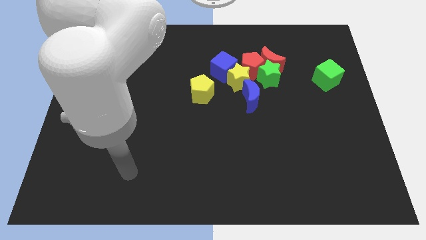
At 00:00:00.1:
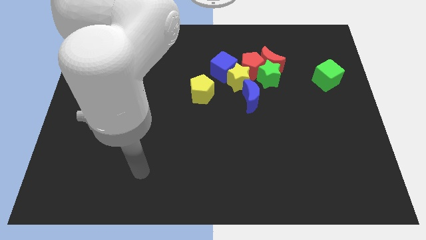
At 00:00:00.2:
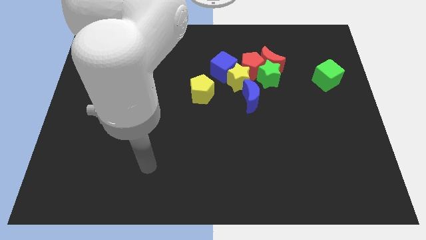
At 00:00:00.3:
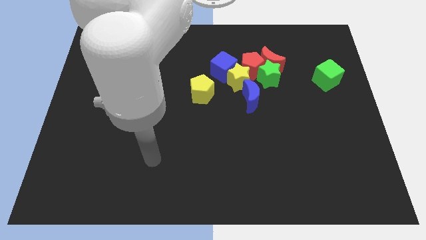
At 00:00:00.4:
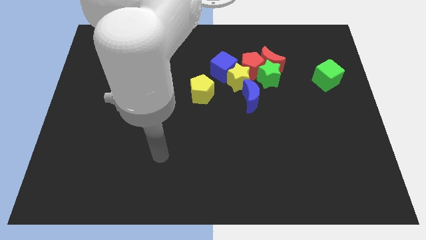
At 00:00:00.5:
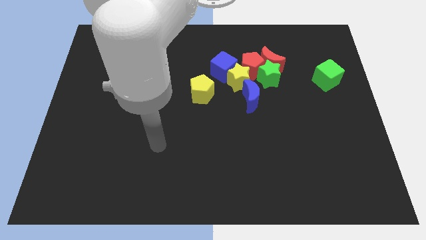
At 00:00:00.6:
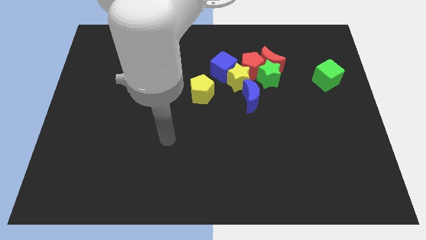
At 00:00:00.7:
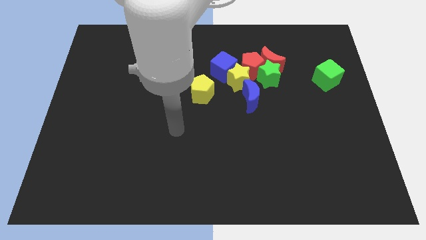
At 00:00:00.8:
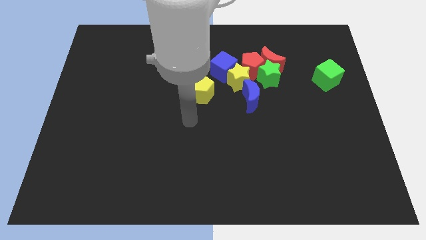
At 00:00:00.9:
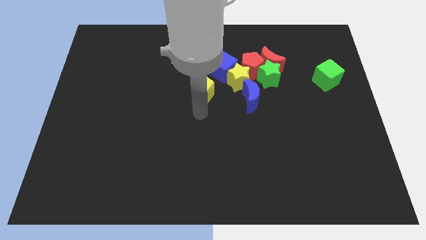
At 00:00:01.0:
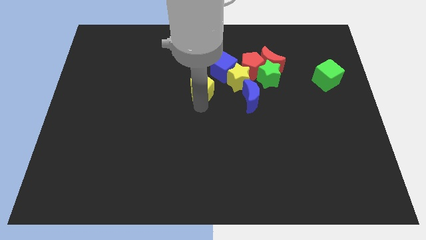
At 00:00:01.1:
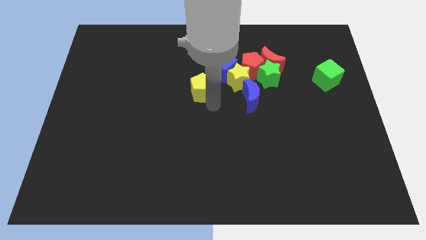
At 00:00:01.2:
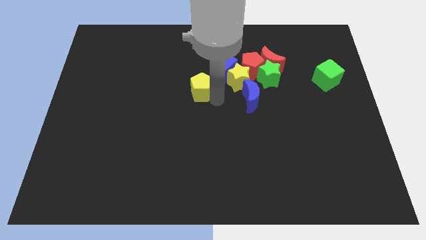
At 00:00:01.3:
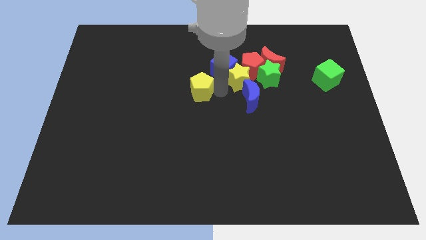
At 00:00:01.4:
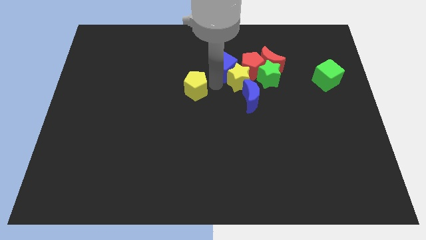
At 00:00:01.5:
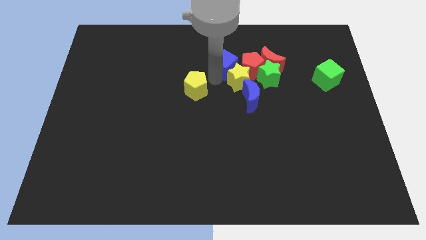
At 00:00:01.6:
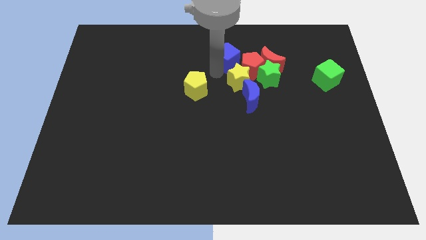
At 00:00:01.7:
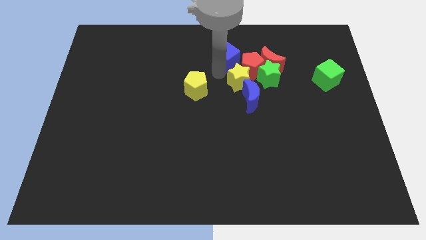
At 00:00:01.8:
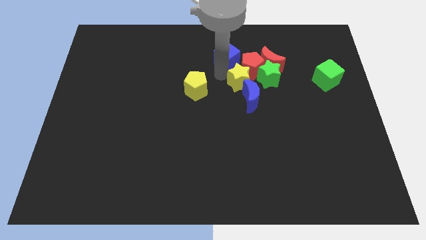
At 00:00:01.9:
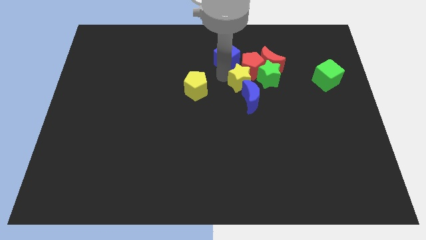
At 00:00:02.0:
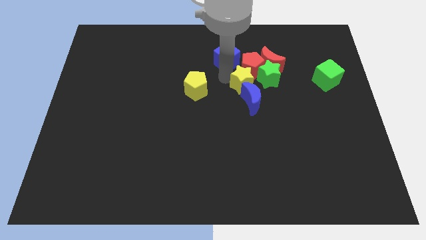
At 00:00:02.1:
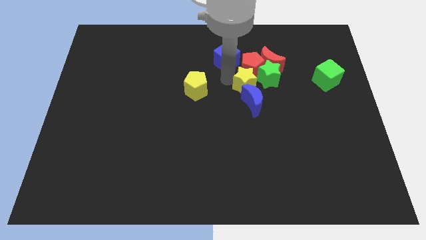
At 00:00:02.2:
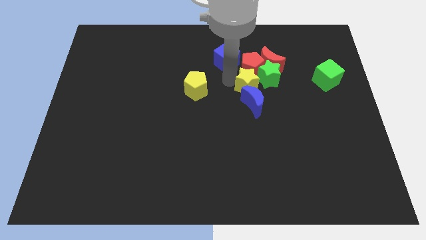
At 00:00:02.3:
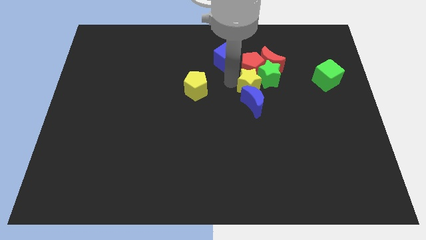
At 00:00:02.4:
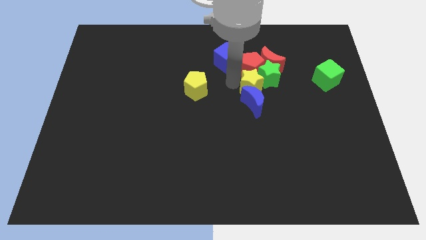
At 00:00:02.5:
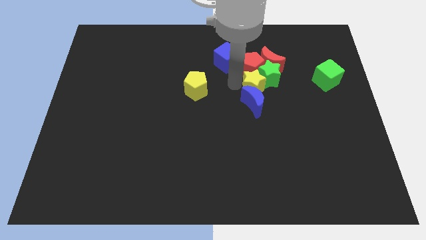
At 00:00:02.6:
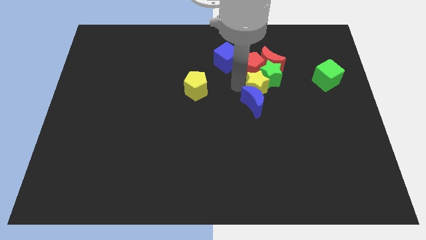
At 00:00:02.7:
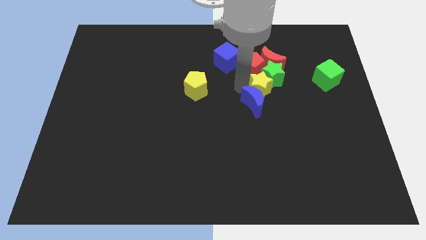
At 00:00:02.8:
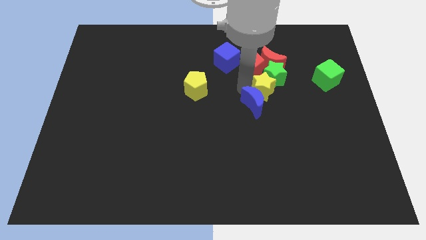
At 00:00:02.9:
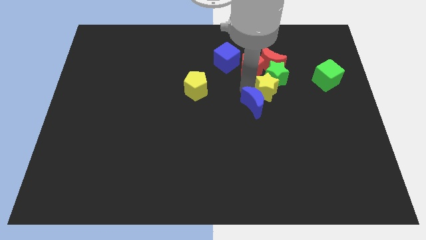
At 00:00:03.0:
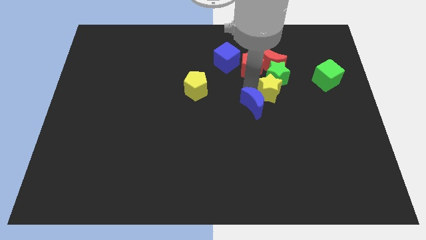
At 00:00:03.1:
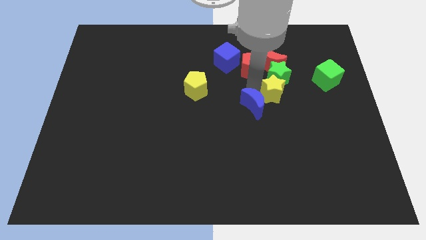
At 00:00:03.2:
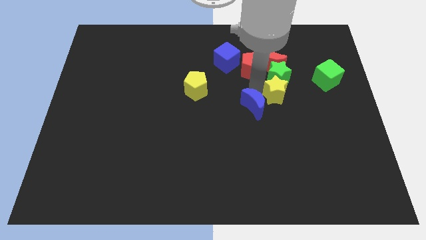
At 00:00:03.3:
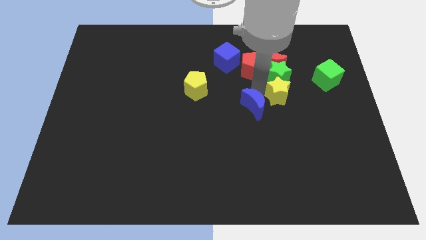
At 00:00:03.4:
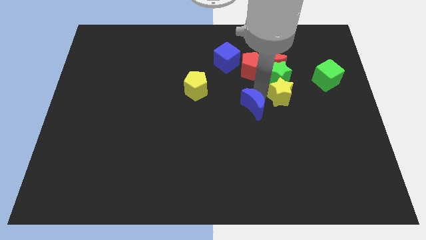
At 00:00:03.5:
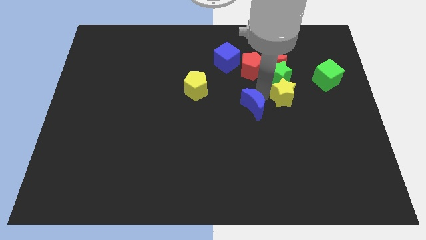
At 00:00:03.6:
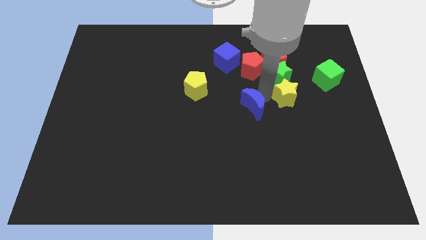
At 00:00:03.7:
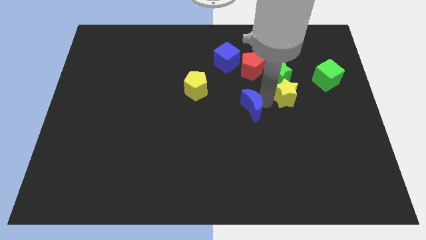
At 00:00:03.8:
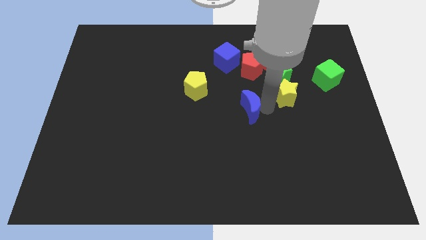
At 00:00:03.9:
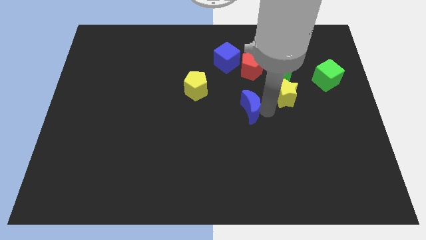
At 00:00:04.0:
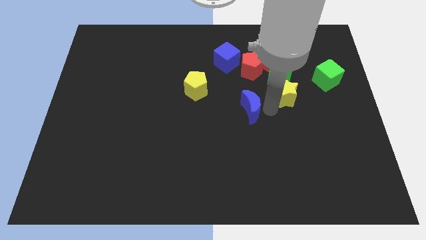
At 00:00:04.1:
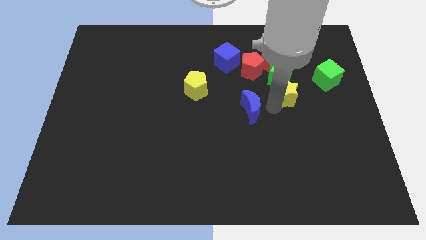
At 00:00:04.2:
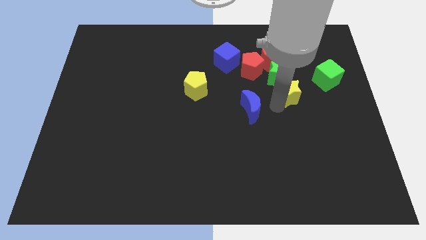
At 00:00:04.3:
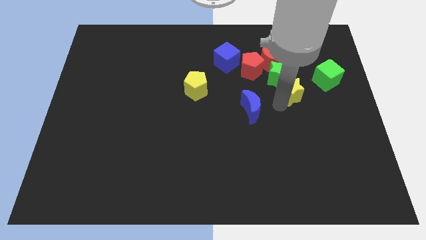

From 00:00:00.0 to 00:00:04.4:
move the yellow star to the left of the green cube

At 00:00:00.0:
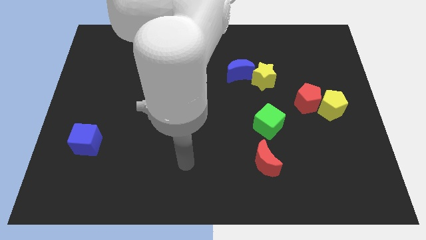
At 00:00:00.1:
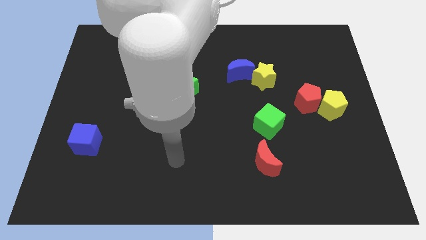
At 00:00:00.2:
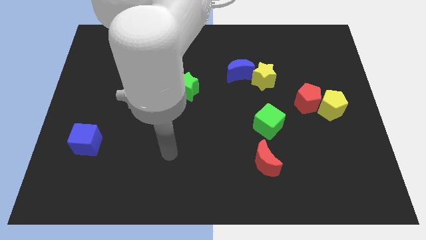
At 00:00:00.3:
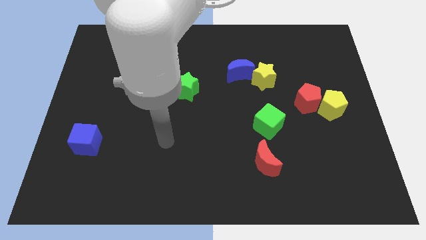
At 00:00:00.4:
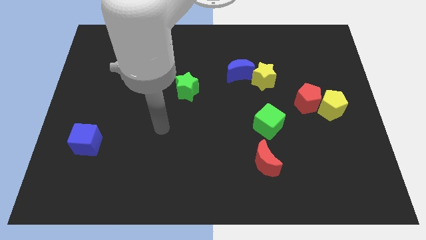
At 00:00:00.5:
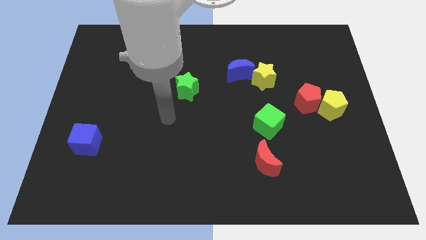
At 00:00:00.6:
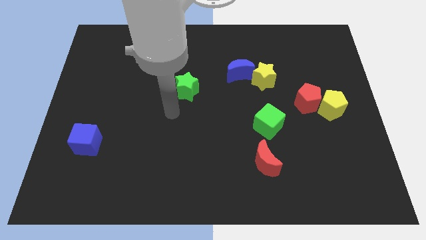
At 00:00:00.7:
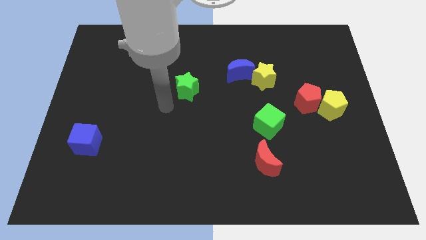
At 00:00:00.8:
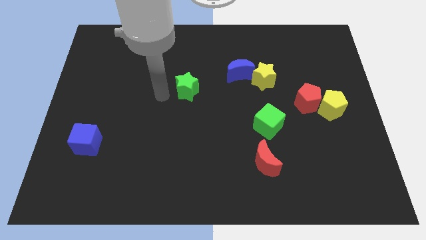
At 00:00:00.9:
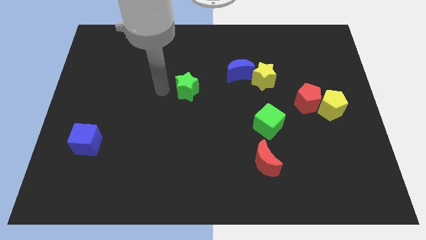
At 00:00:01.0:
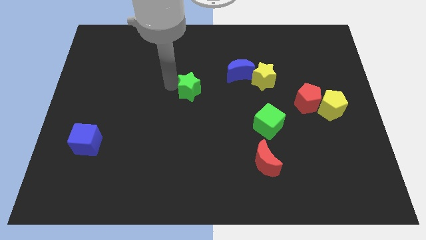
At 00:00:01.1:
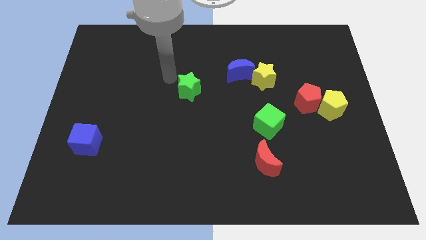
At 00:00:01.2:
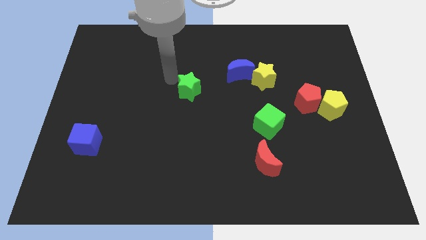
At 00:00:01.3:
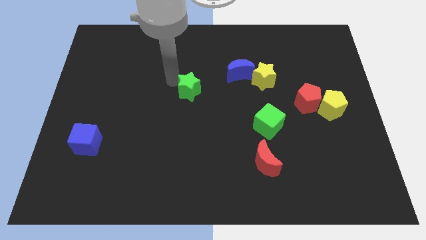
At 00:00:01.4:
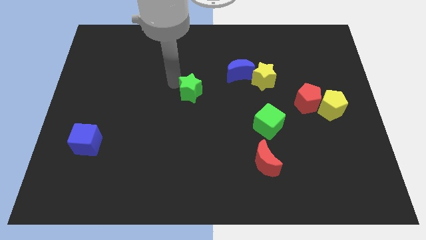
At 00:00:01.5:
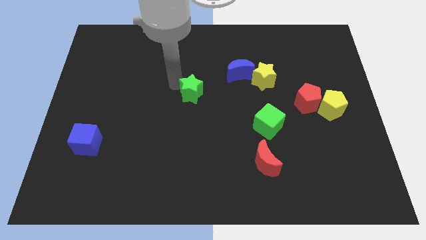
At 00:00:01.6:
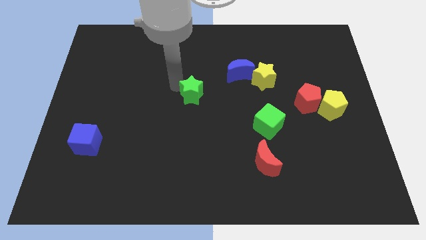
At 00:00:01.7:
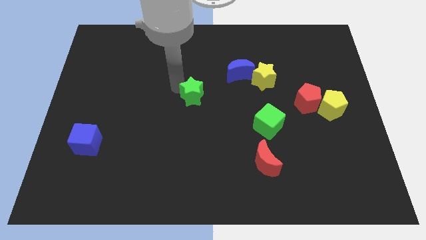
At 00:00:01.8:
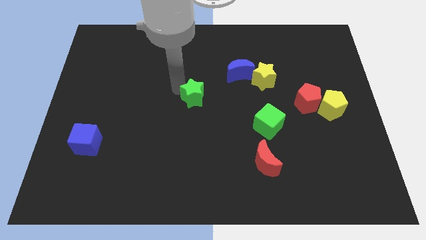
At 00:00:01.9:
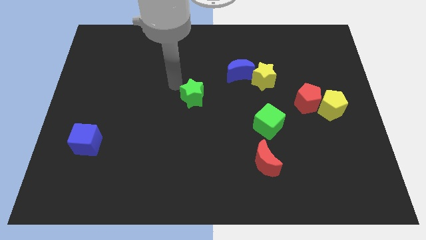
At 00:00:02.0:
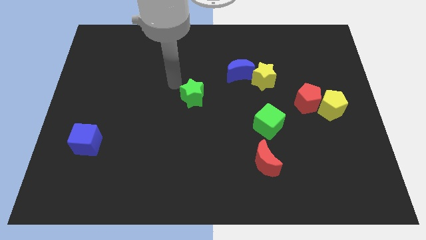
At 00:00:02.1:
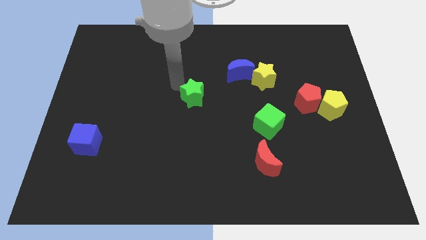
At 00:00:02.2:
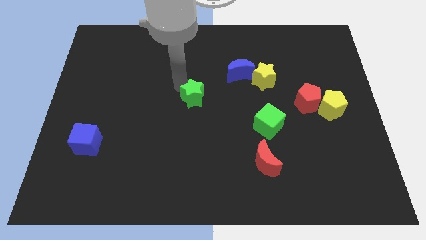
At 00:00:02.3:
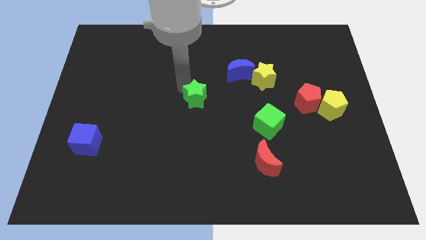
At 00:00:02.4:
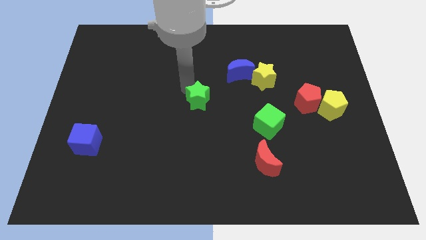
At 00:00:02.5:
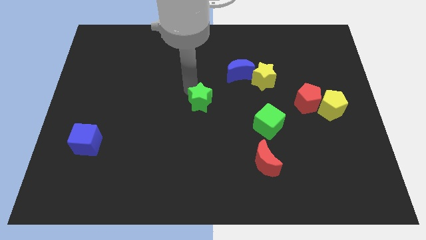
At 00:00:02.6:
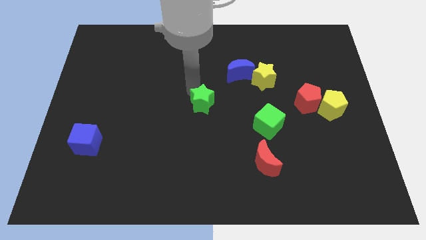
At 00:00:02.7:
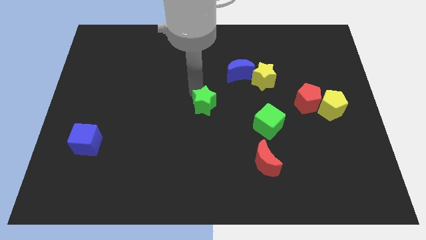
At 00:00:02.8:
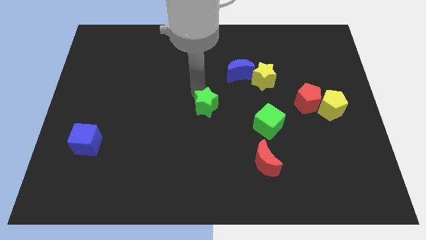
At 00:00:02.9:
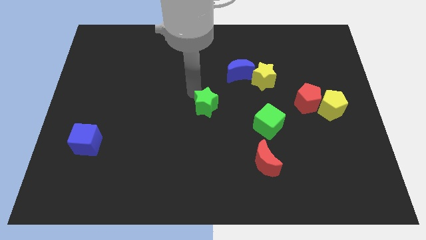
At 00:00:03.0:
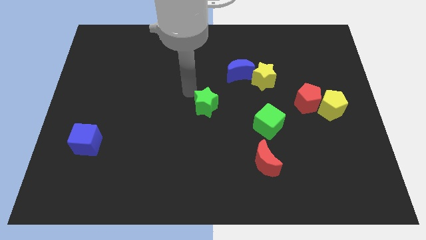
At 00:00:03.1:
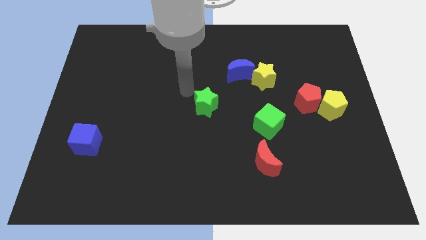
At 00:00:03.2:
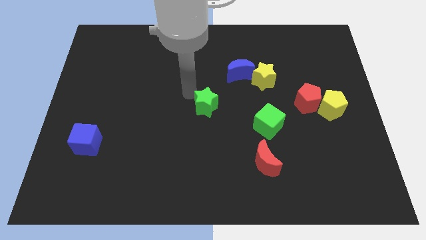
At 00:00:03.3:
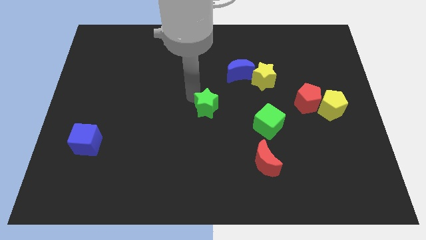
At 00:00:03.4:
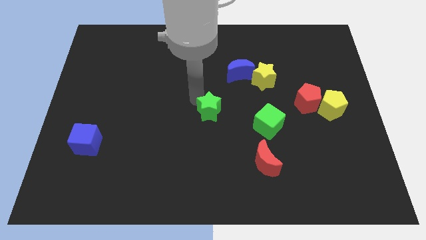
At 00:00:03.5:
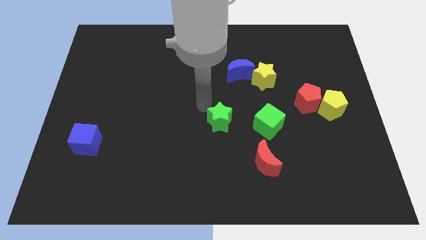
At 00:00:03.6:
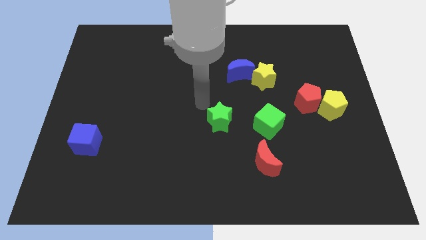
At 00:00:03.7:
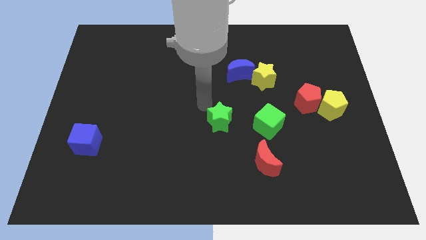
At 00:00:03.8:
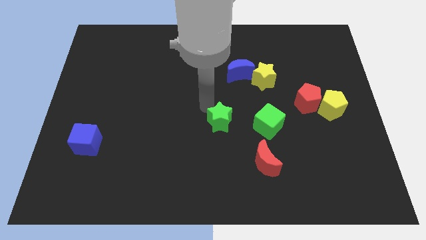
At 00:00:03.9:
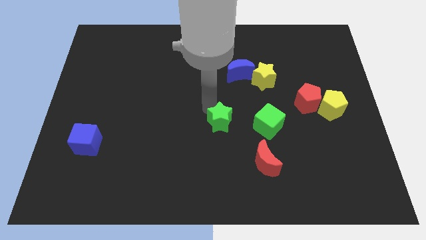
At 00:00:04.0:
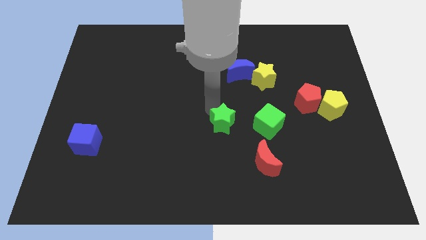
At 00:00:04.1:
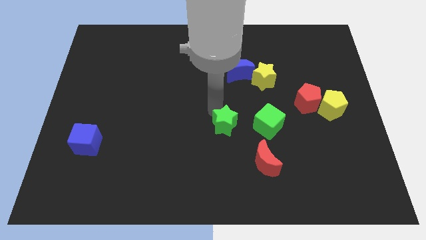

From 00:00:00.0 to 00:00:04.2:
push the green star to the top left of the red moon
